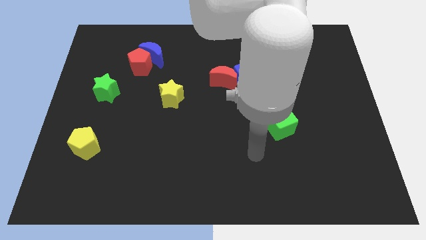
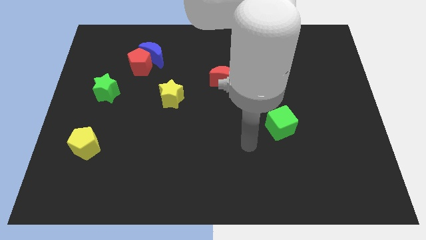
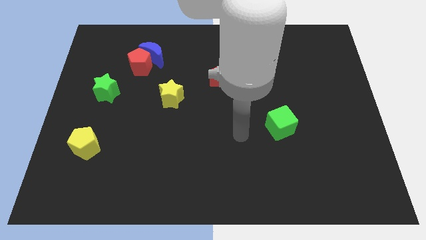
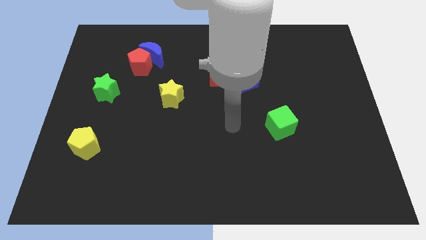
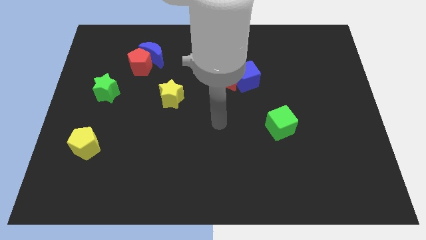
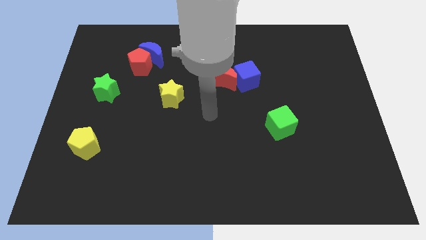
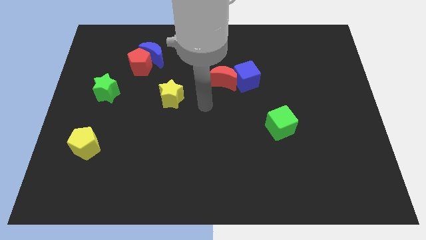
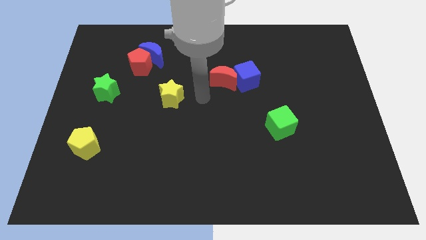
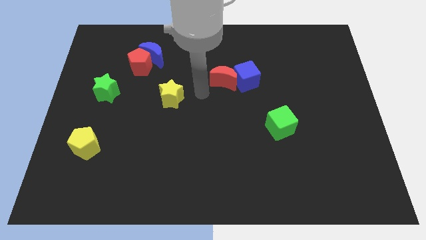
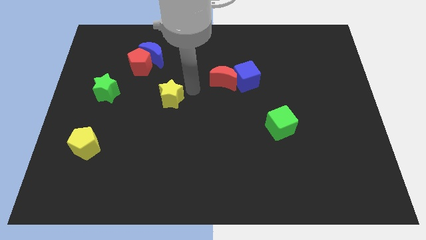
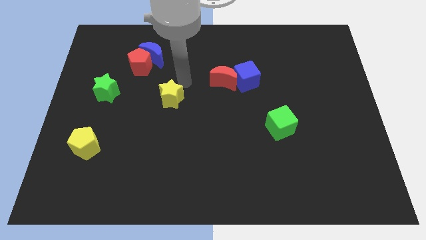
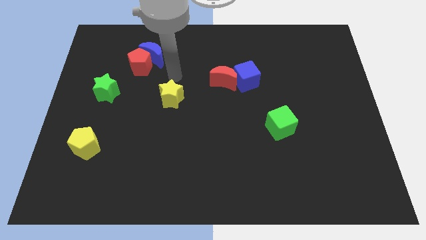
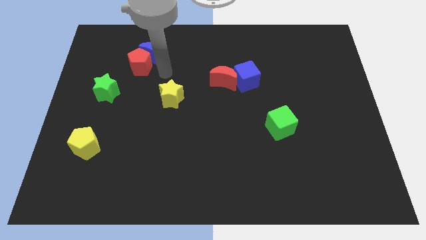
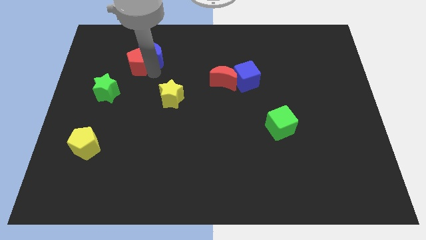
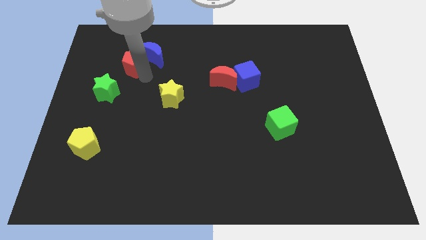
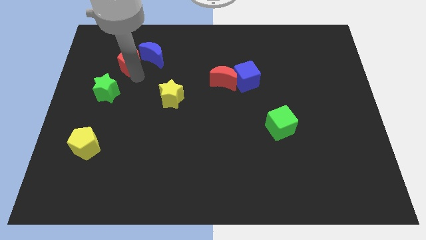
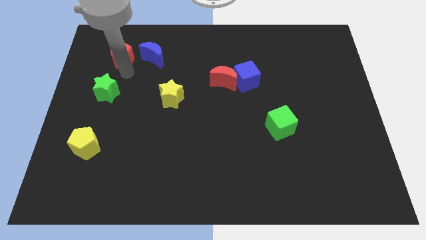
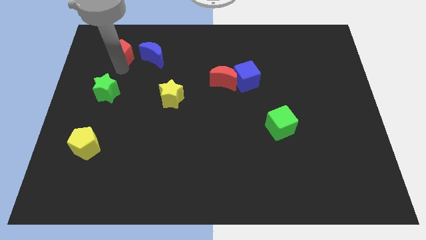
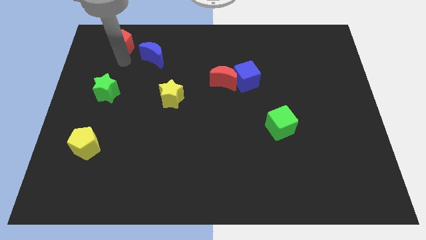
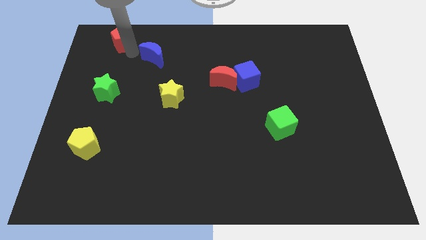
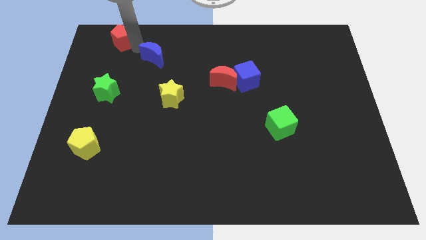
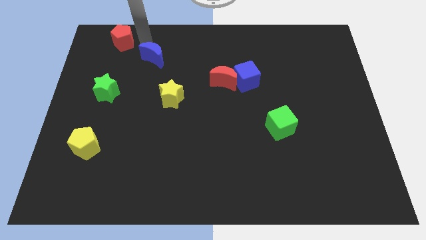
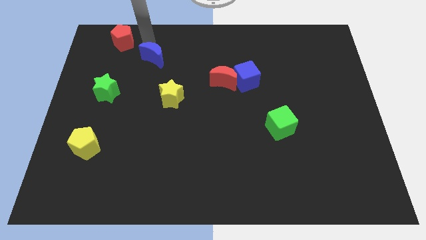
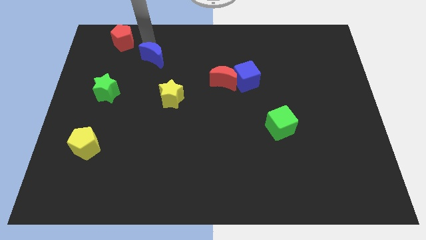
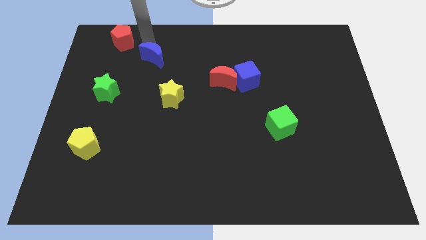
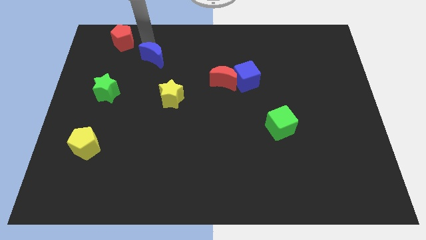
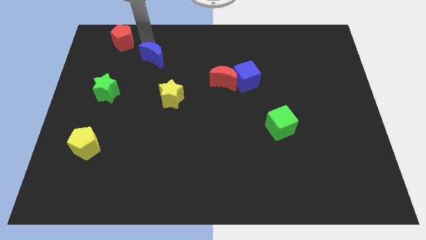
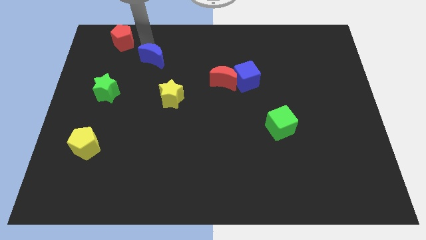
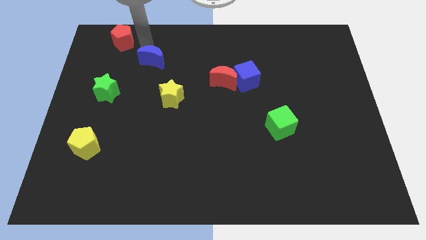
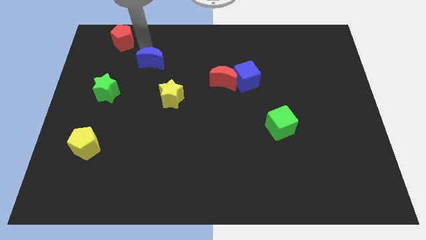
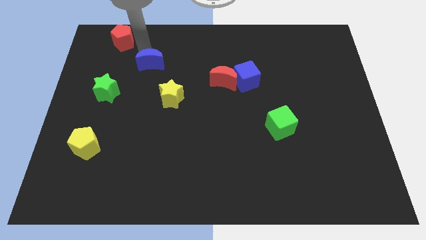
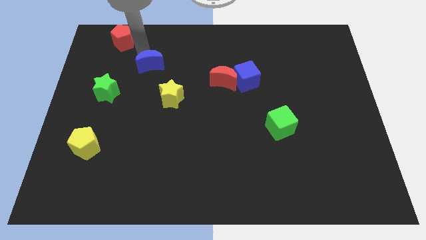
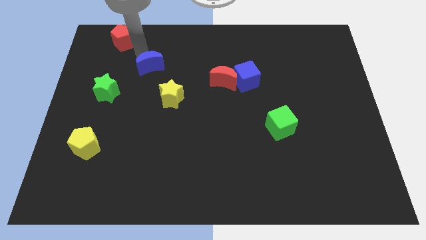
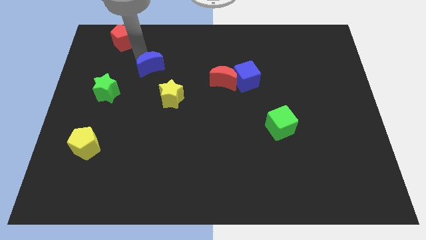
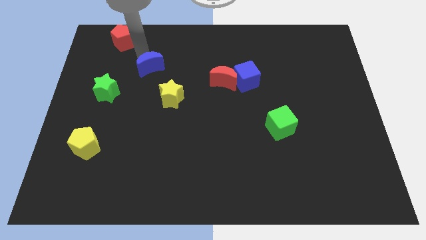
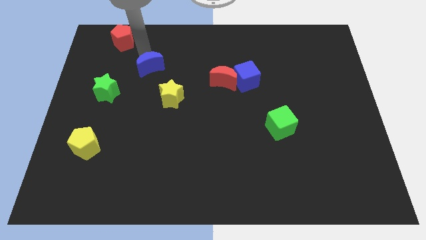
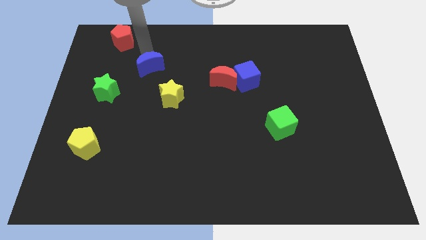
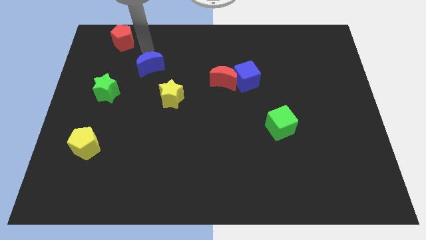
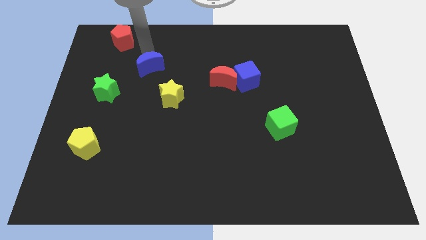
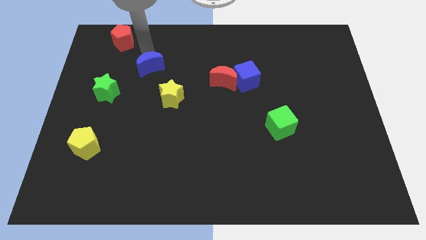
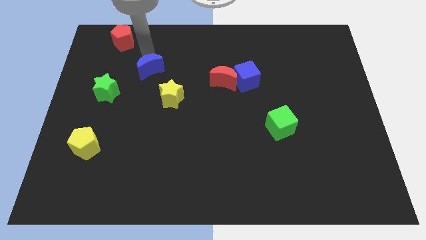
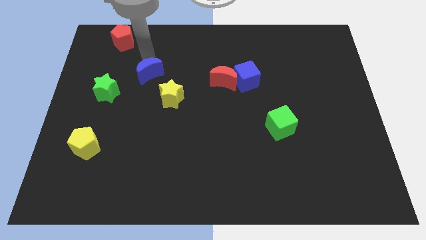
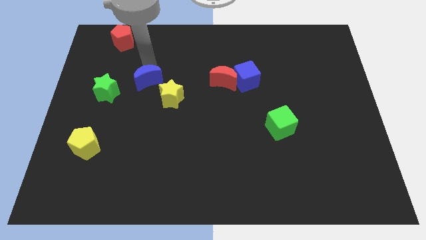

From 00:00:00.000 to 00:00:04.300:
slightly slide the blue moon down

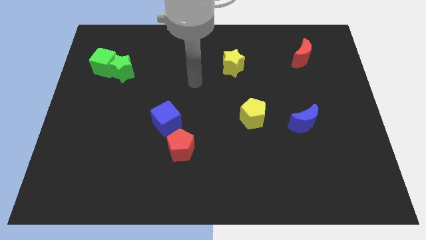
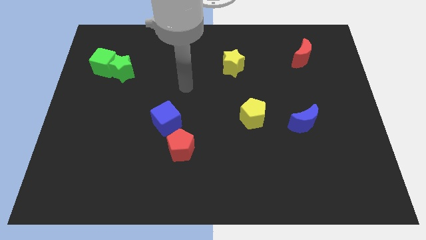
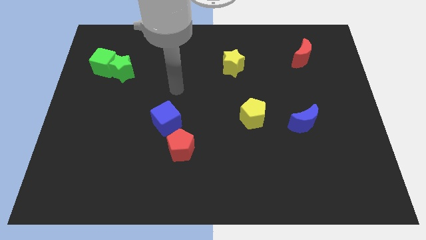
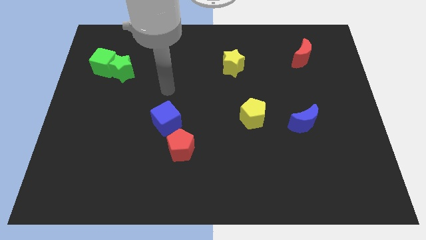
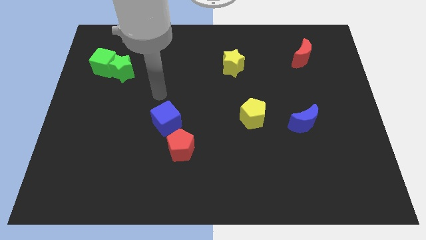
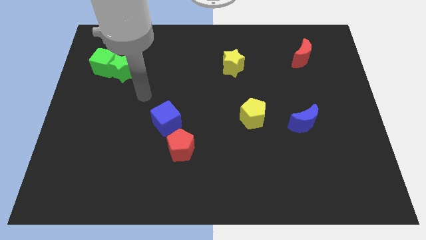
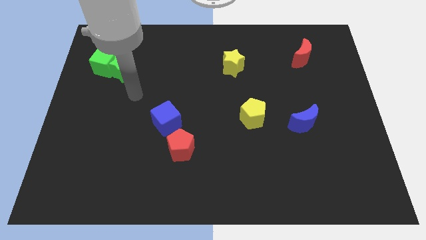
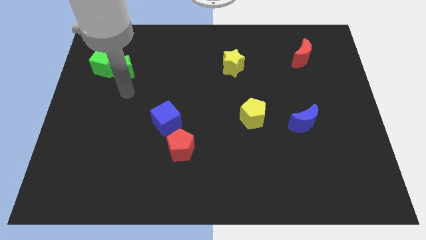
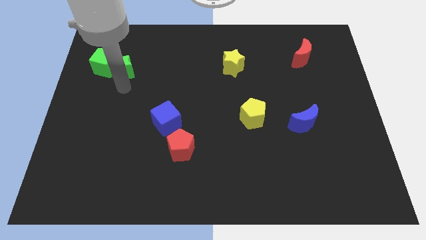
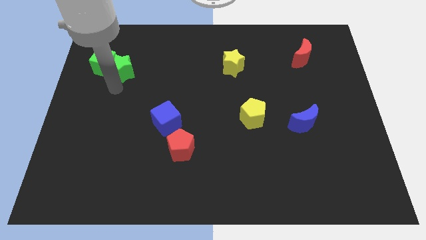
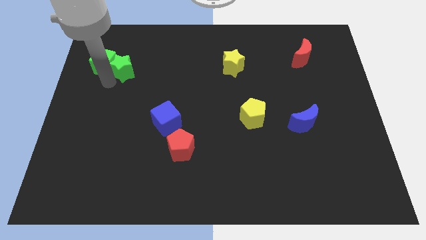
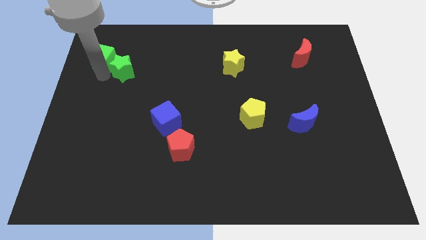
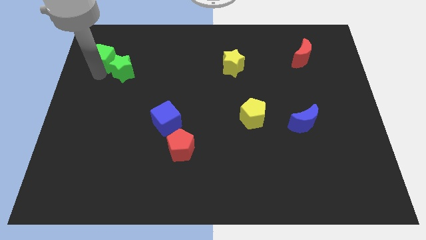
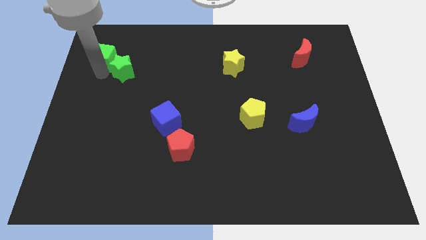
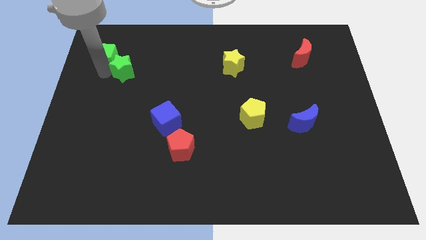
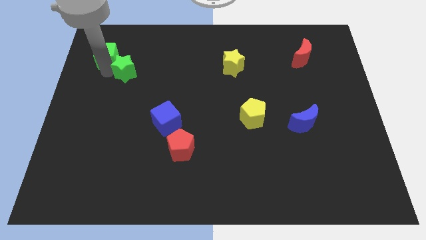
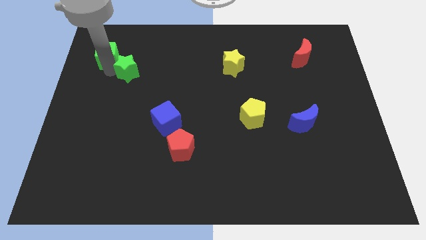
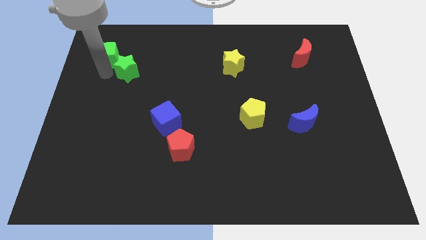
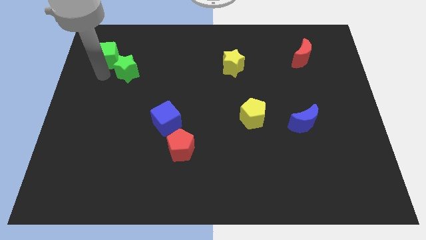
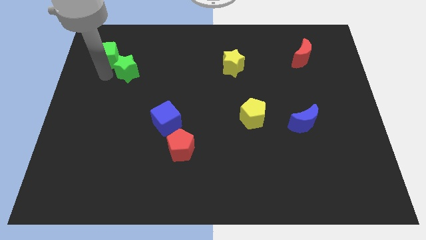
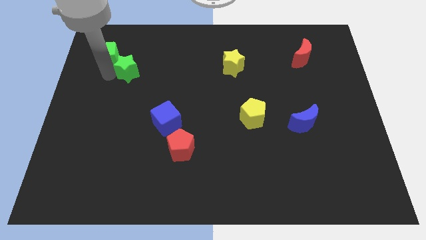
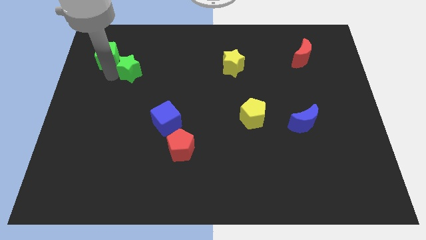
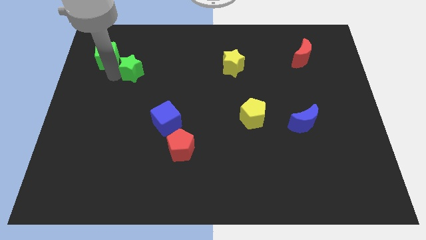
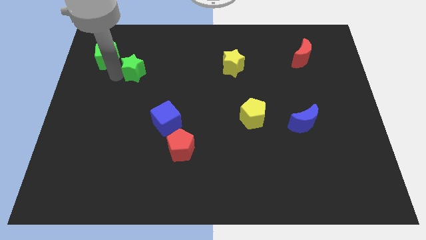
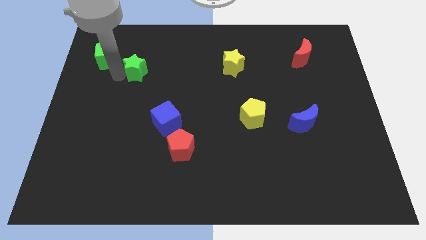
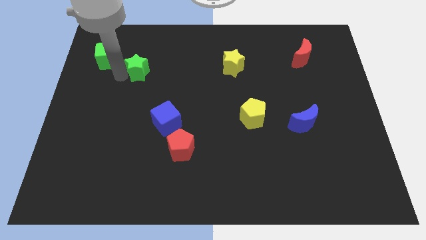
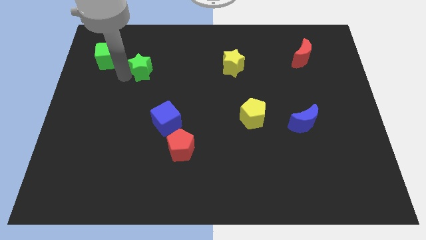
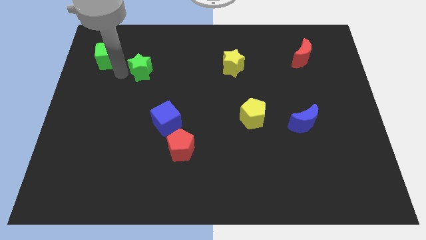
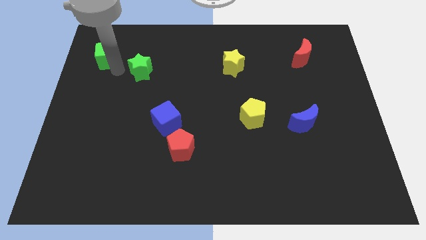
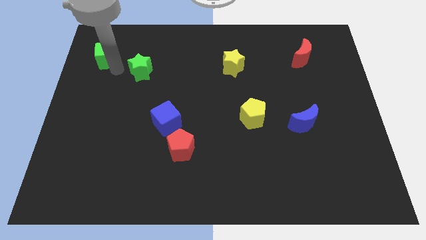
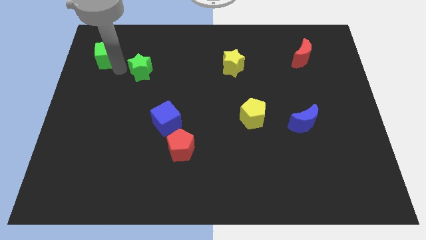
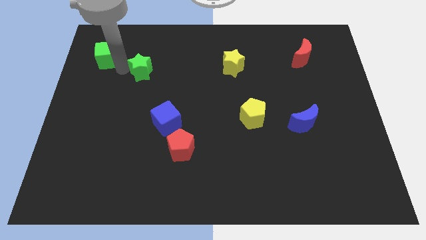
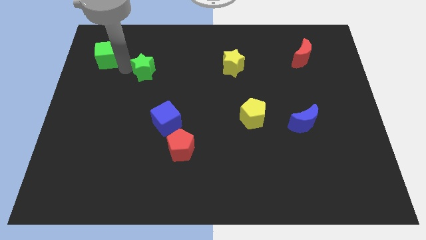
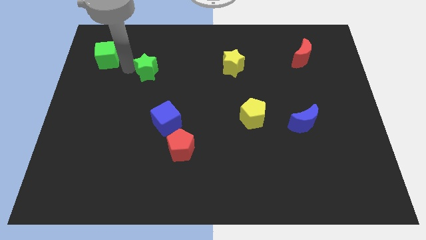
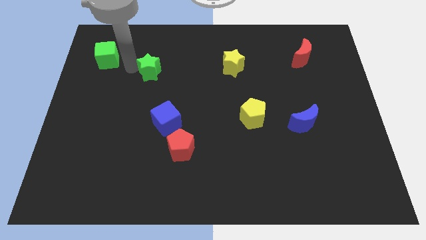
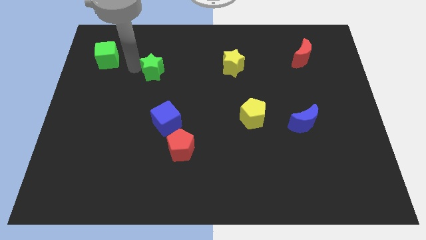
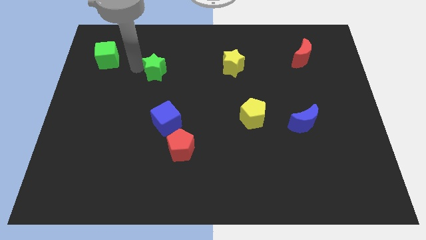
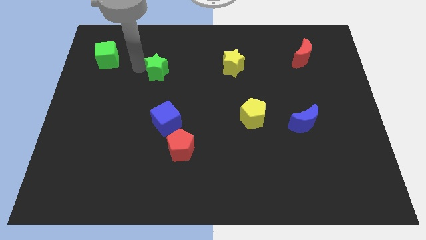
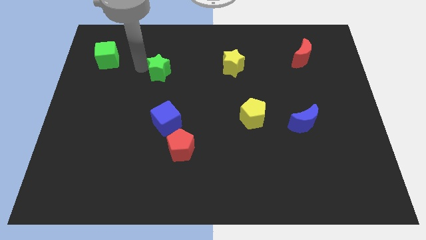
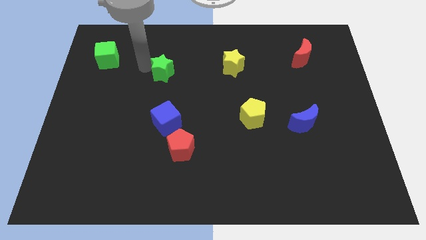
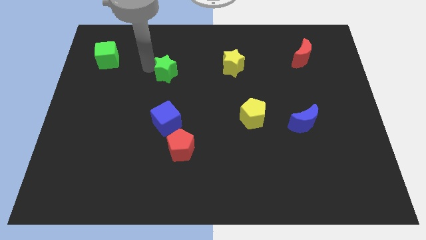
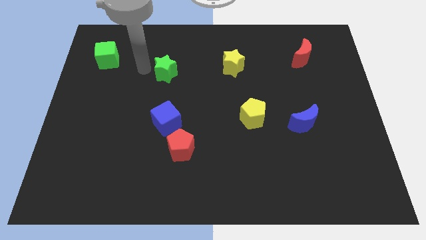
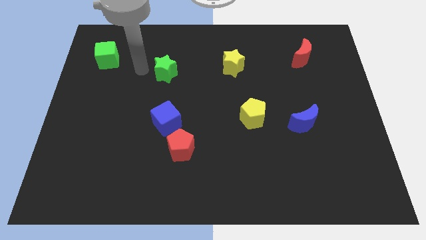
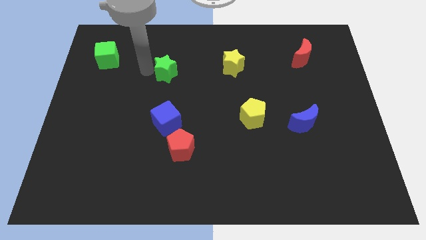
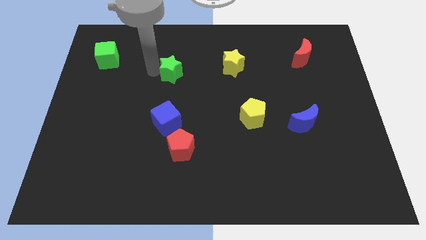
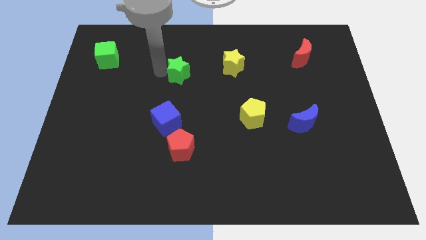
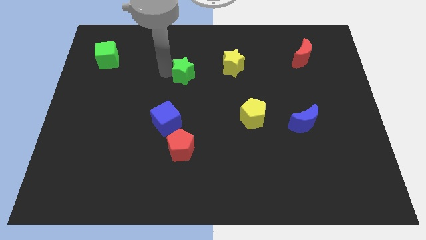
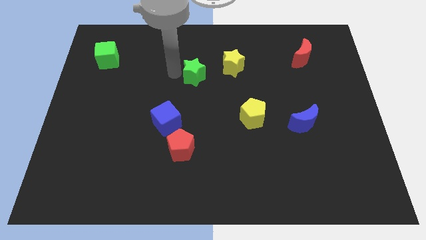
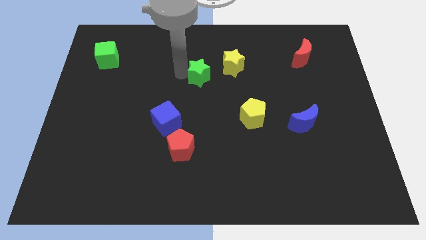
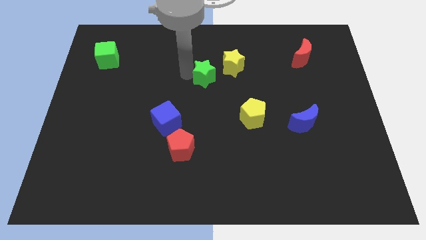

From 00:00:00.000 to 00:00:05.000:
move the green star to the right
